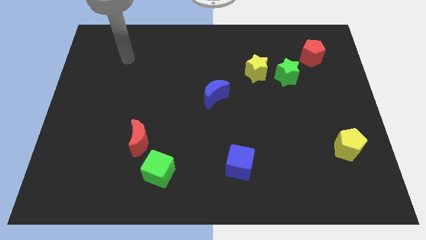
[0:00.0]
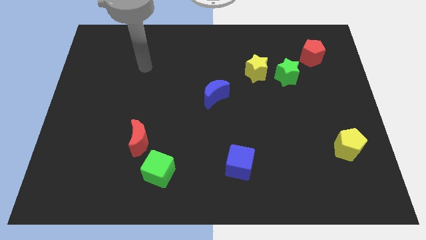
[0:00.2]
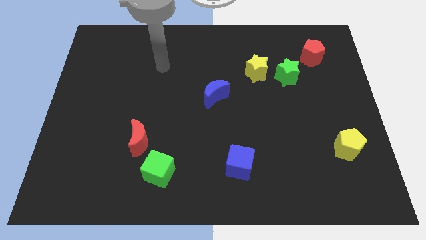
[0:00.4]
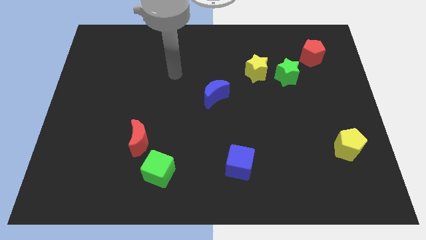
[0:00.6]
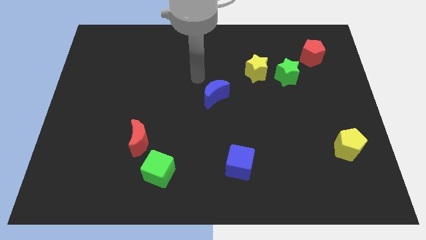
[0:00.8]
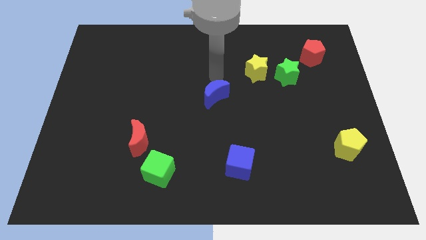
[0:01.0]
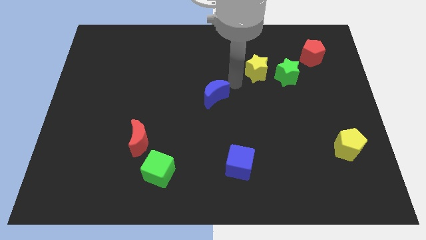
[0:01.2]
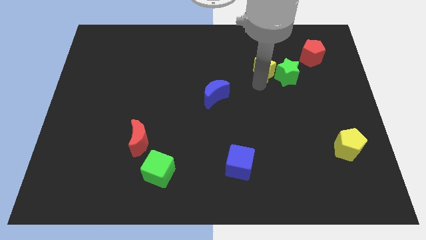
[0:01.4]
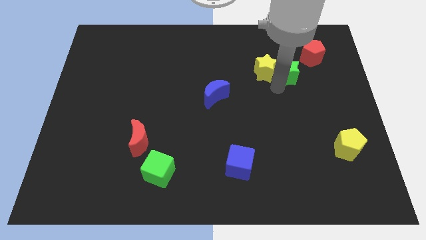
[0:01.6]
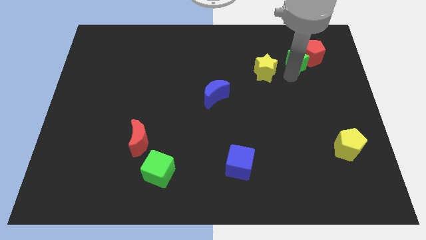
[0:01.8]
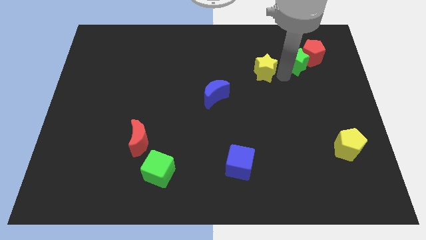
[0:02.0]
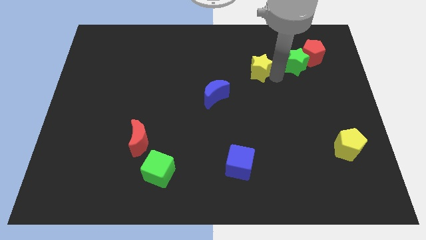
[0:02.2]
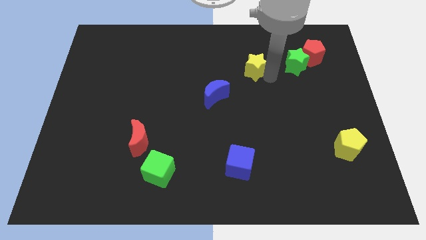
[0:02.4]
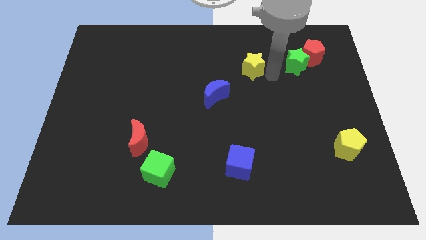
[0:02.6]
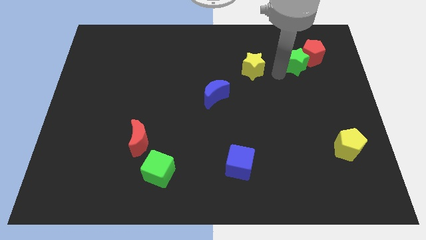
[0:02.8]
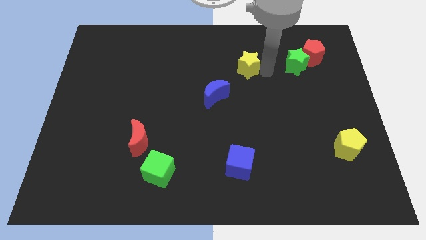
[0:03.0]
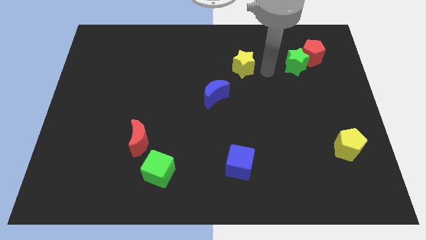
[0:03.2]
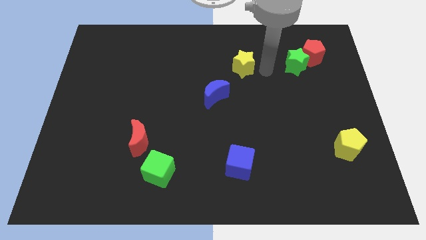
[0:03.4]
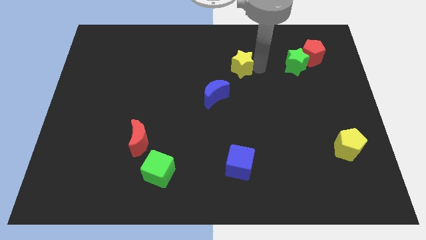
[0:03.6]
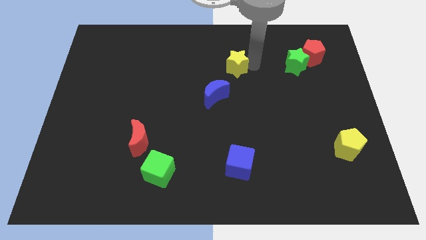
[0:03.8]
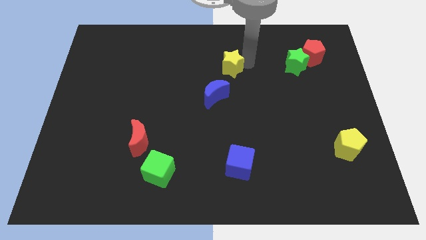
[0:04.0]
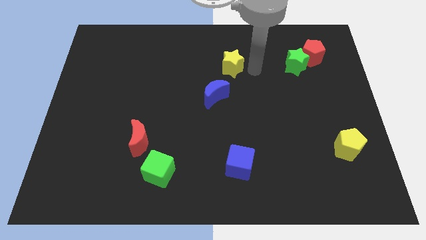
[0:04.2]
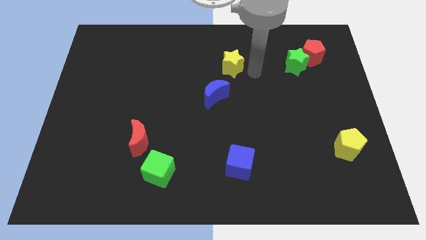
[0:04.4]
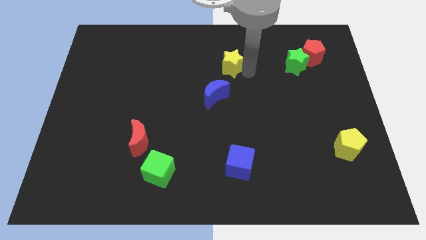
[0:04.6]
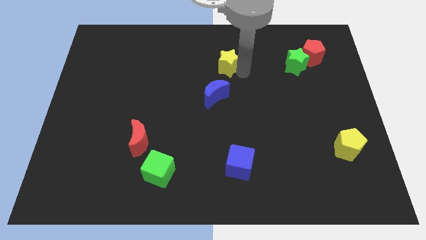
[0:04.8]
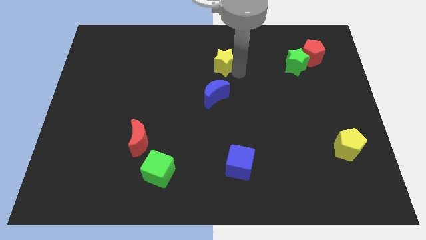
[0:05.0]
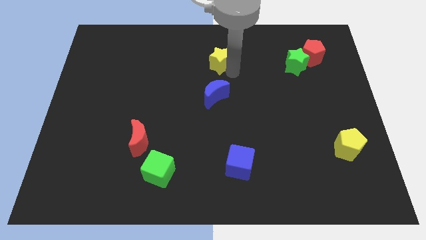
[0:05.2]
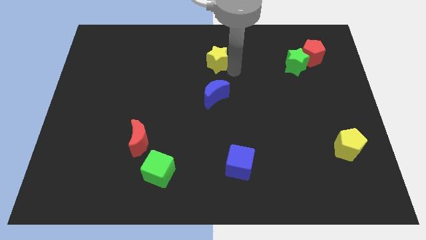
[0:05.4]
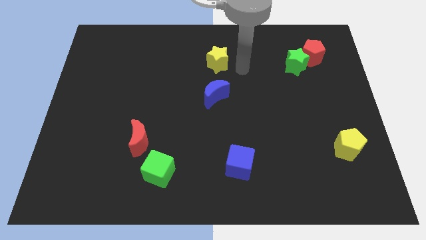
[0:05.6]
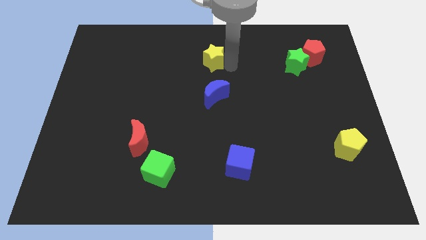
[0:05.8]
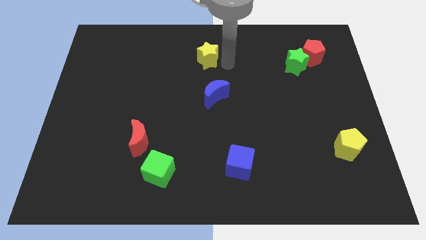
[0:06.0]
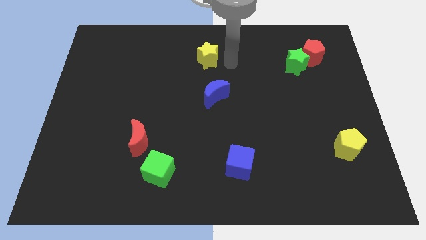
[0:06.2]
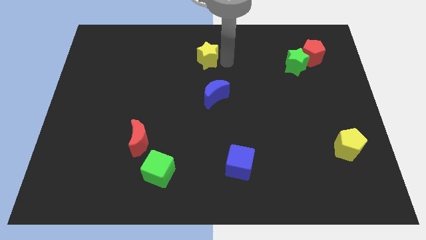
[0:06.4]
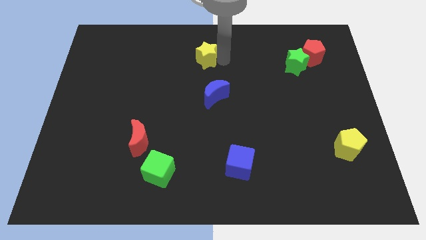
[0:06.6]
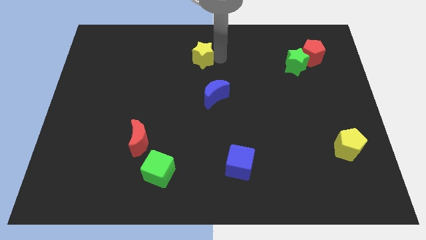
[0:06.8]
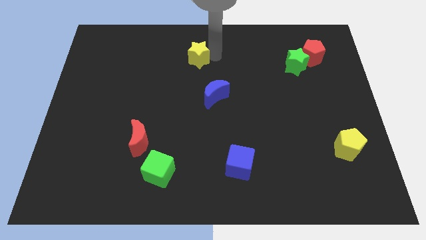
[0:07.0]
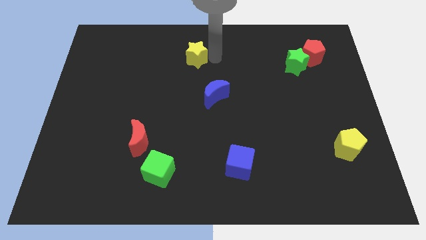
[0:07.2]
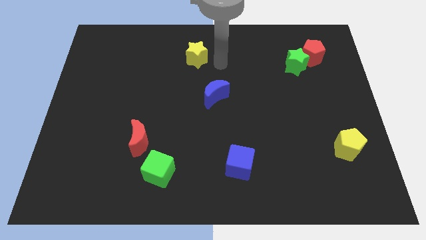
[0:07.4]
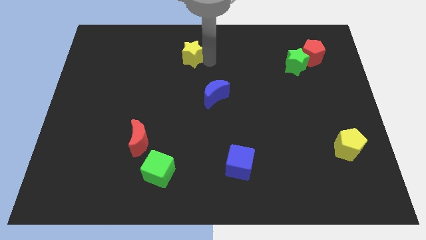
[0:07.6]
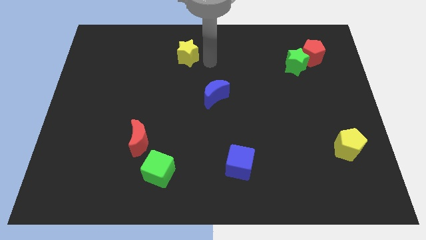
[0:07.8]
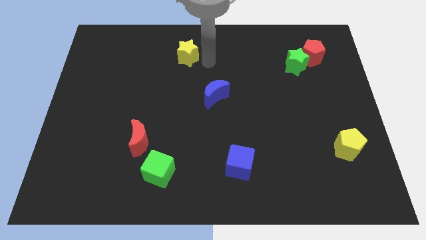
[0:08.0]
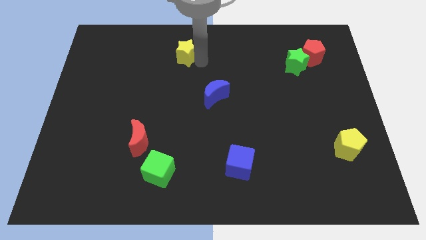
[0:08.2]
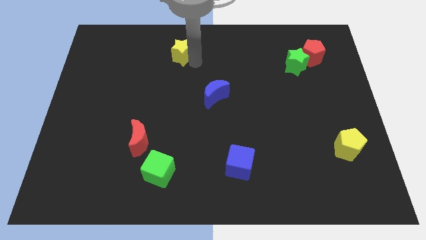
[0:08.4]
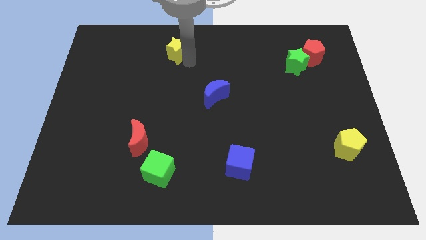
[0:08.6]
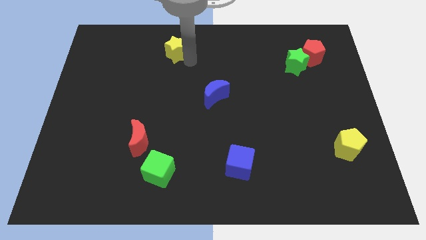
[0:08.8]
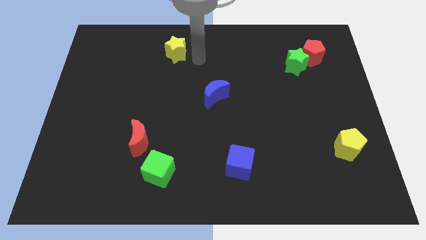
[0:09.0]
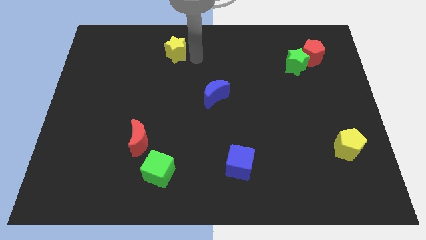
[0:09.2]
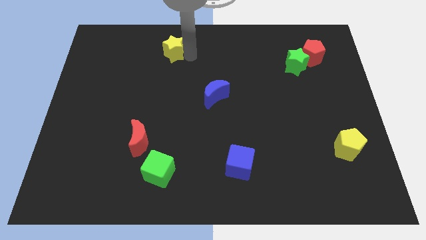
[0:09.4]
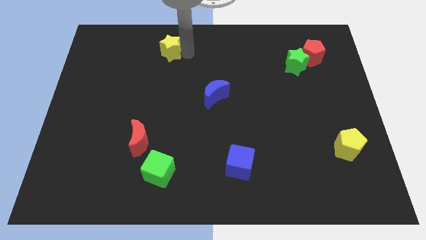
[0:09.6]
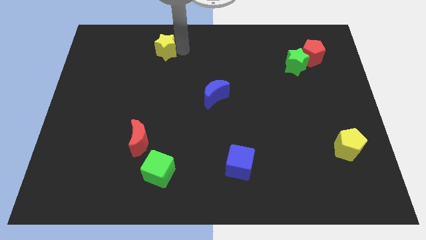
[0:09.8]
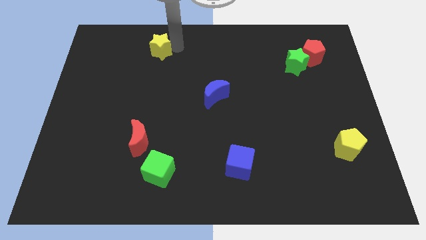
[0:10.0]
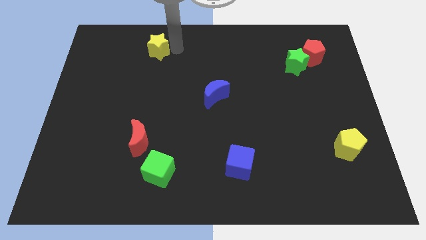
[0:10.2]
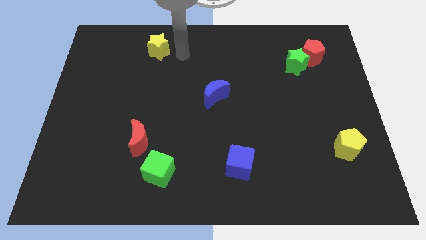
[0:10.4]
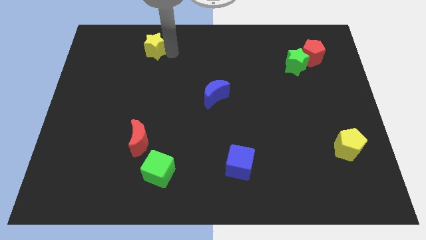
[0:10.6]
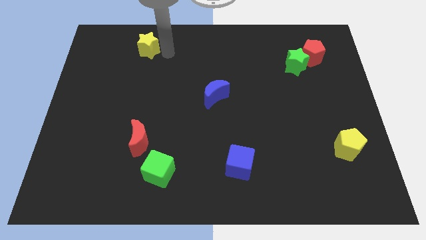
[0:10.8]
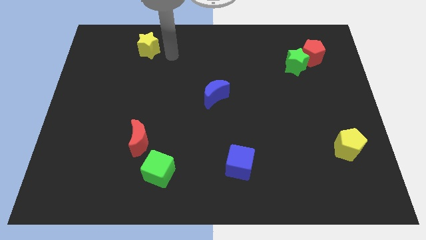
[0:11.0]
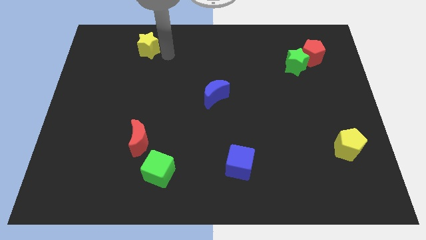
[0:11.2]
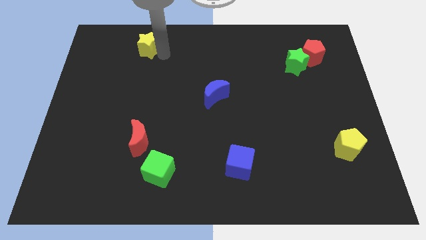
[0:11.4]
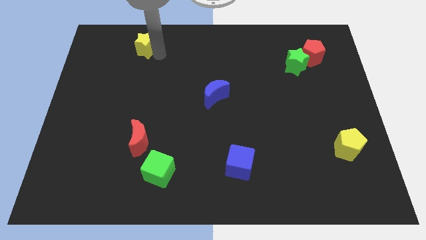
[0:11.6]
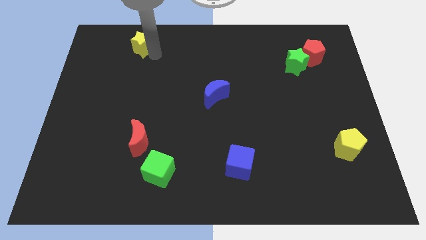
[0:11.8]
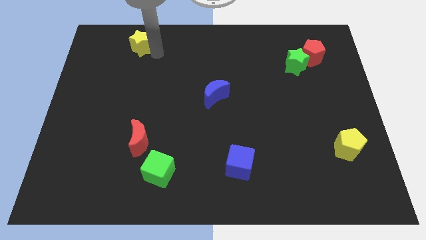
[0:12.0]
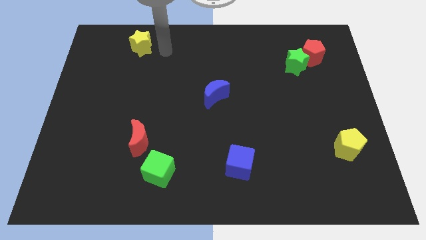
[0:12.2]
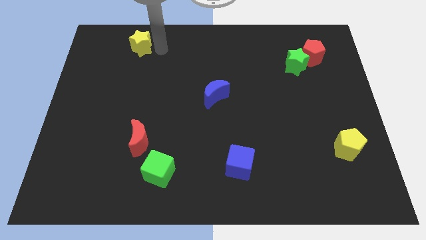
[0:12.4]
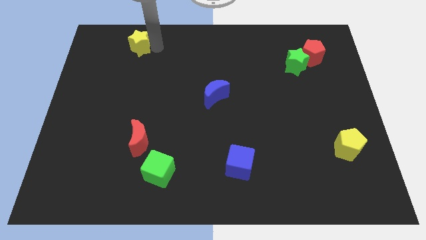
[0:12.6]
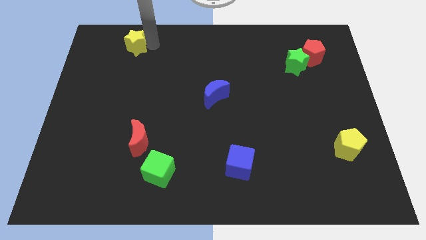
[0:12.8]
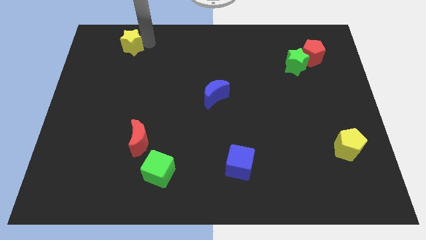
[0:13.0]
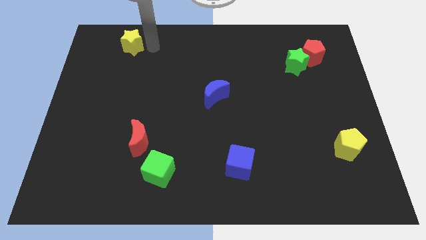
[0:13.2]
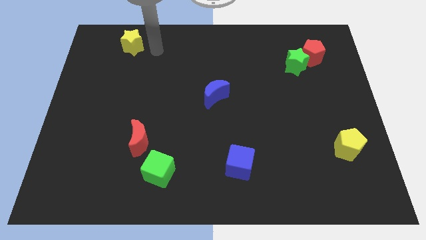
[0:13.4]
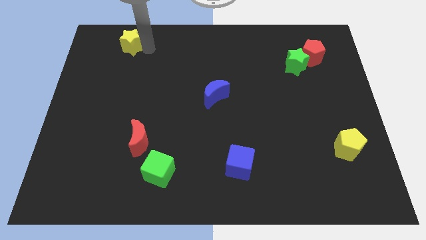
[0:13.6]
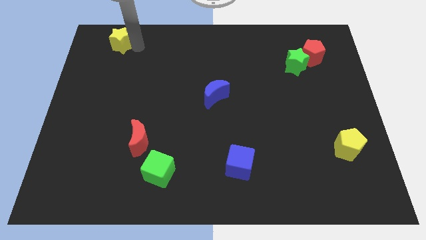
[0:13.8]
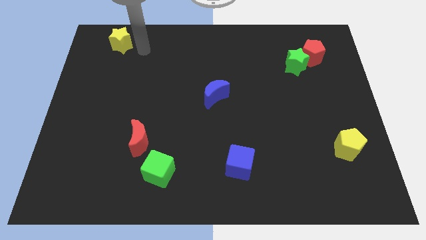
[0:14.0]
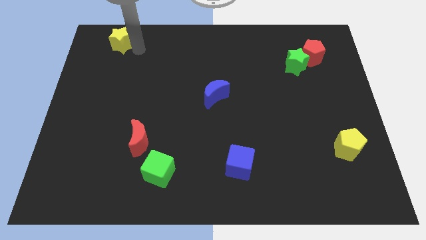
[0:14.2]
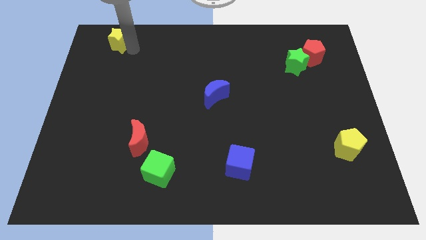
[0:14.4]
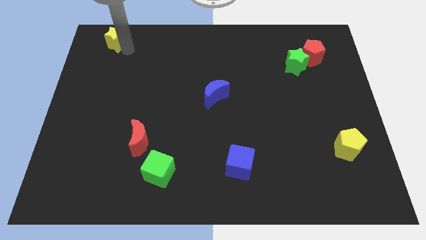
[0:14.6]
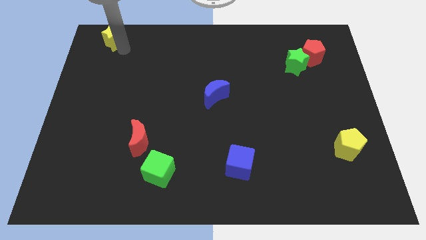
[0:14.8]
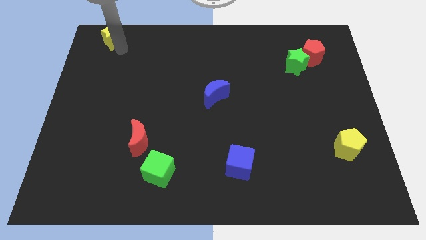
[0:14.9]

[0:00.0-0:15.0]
slide the yellow star to the top left corner
